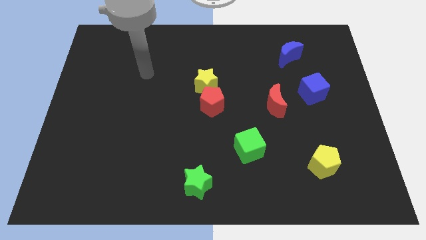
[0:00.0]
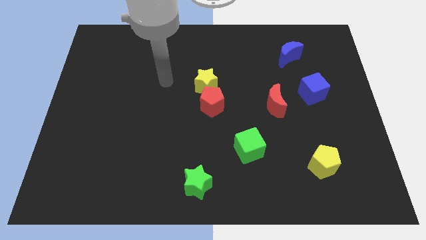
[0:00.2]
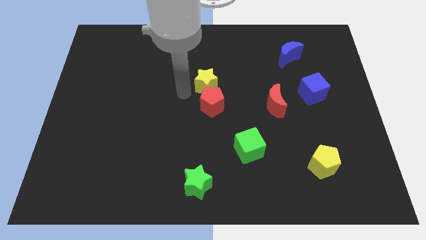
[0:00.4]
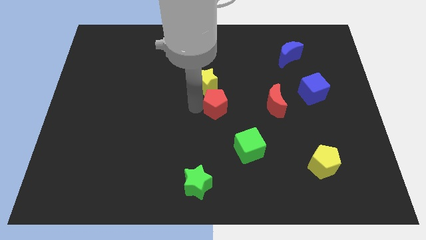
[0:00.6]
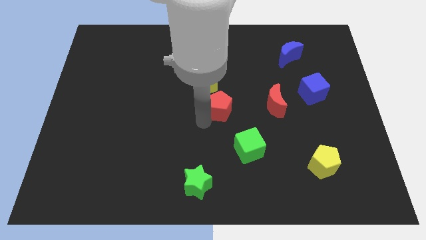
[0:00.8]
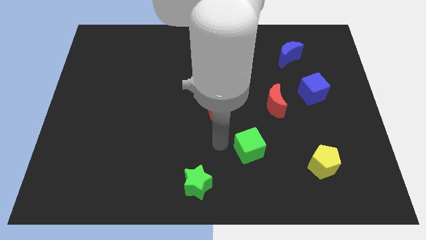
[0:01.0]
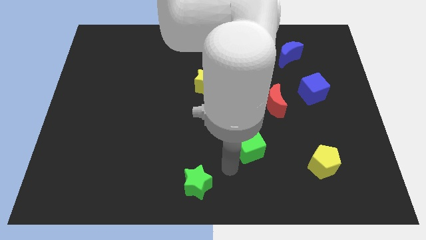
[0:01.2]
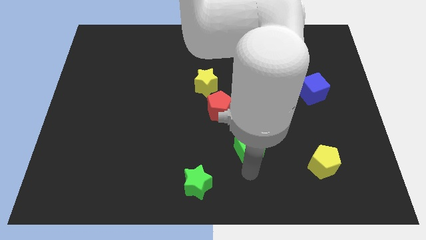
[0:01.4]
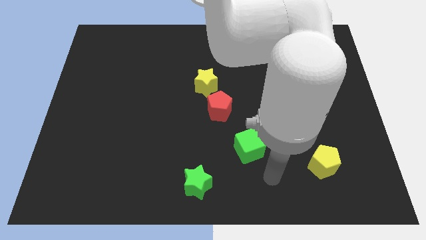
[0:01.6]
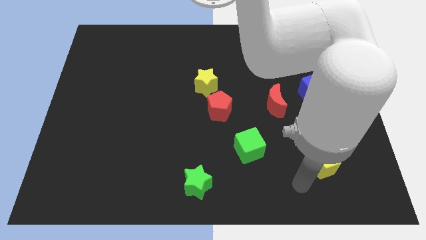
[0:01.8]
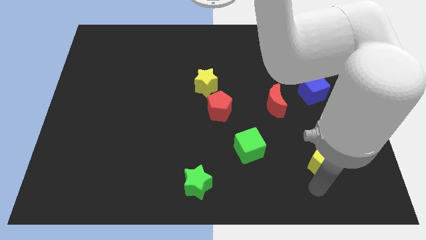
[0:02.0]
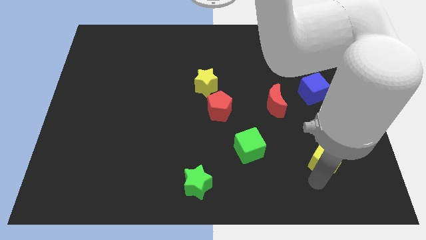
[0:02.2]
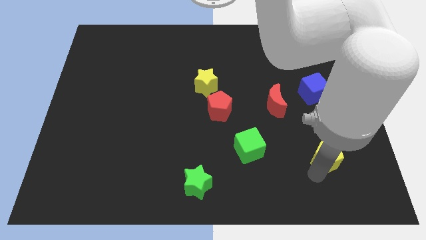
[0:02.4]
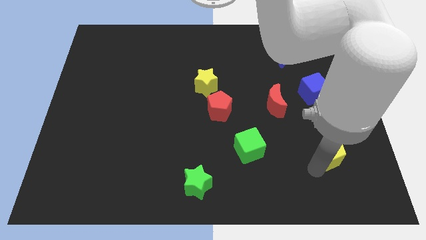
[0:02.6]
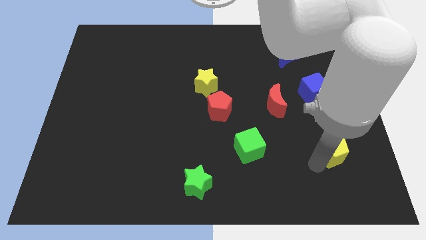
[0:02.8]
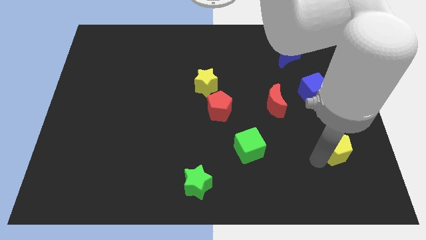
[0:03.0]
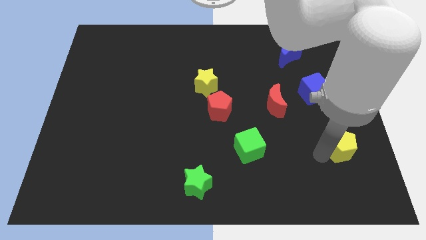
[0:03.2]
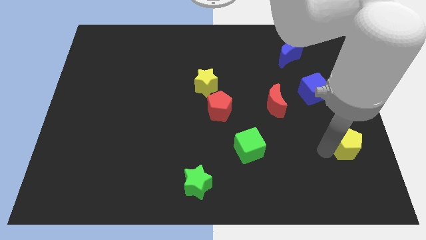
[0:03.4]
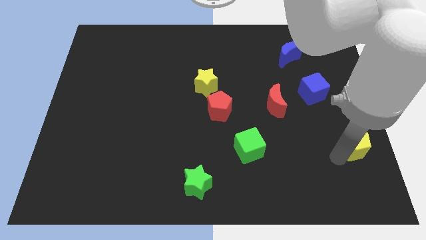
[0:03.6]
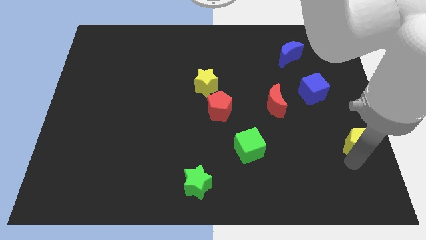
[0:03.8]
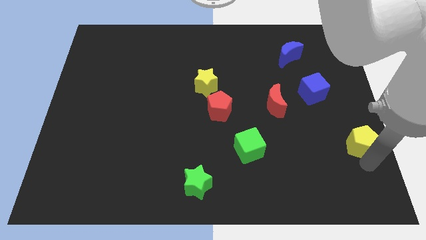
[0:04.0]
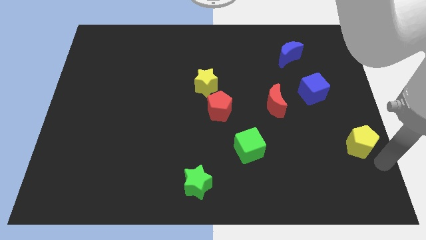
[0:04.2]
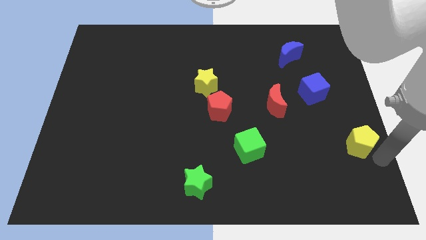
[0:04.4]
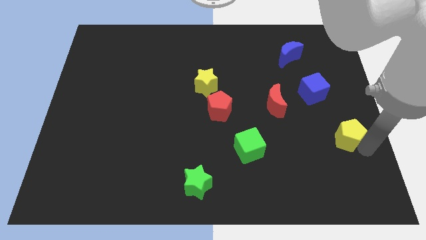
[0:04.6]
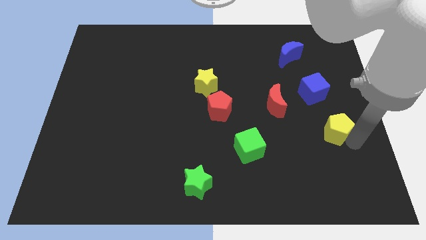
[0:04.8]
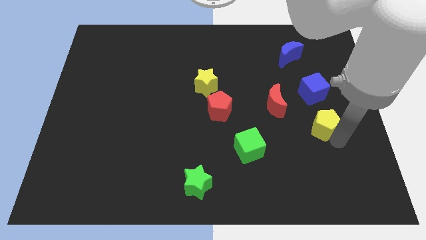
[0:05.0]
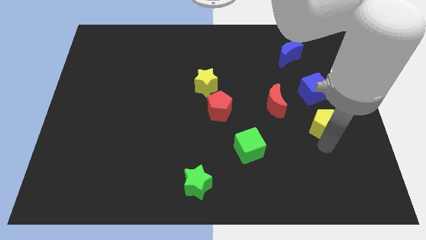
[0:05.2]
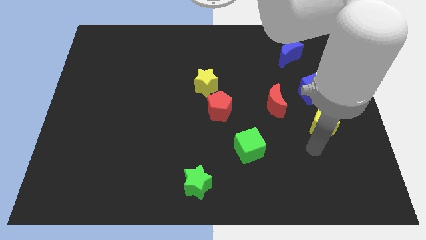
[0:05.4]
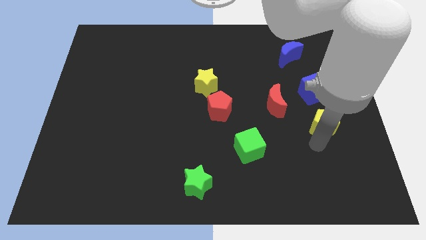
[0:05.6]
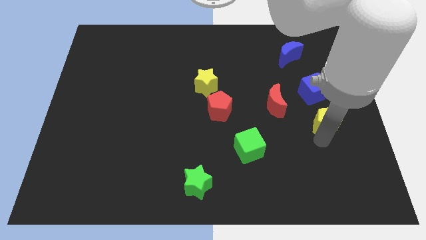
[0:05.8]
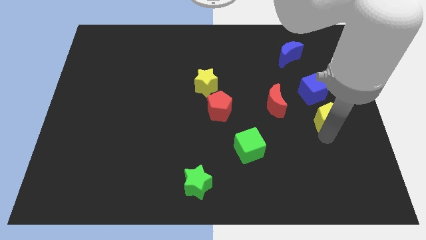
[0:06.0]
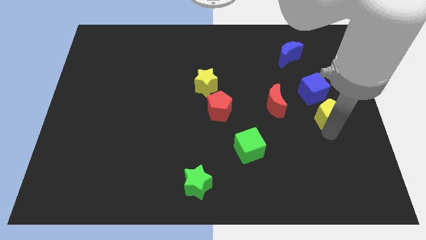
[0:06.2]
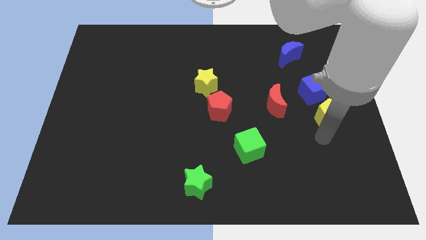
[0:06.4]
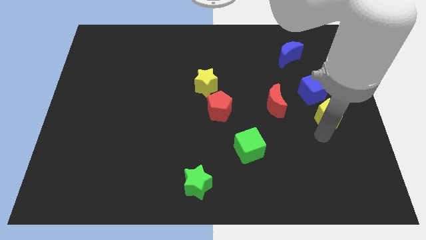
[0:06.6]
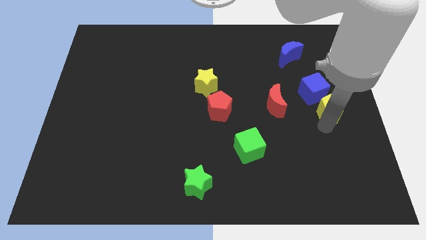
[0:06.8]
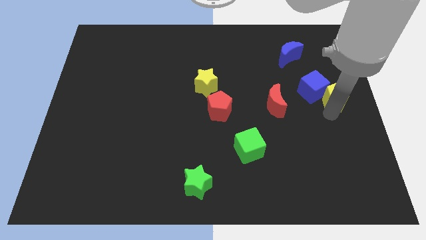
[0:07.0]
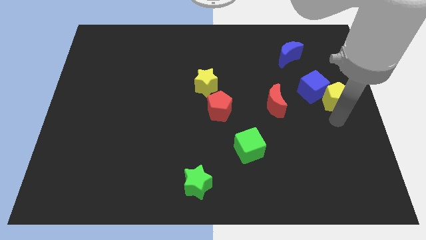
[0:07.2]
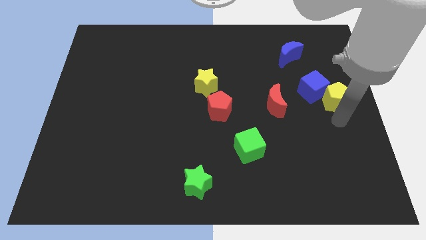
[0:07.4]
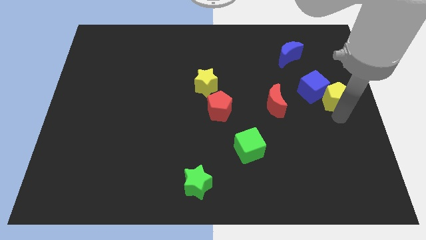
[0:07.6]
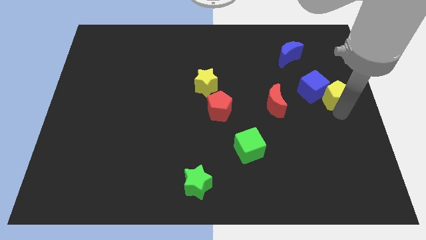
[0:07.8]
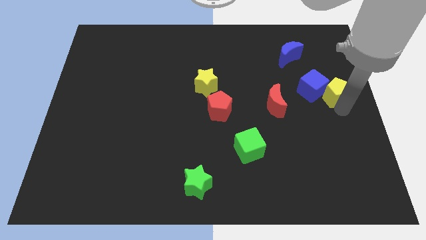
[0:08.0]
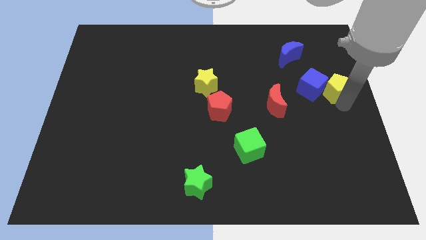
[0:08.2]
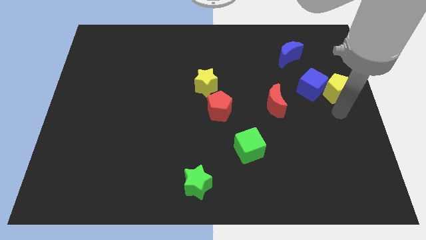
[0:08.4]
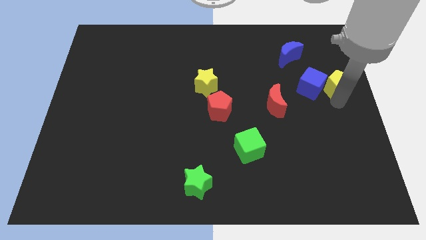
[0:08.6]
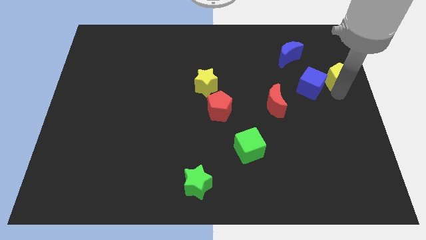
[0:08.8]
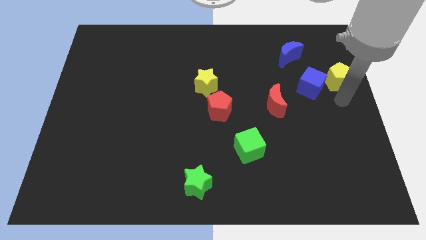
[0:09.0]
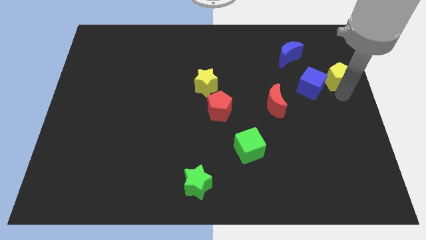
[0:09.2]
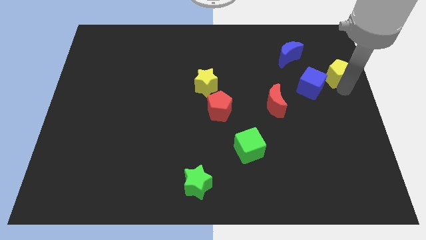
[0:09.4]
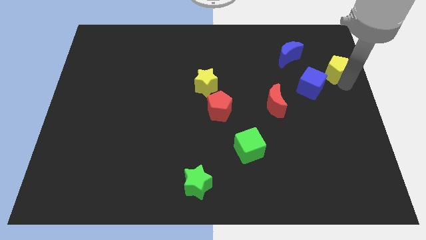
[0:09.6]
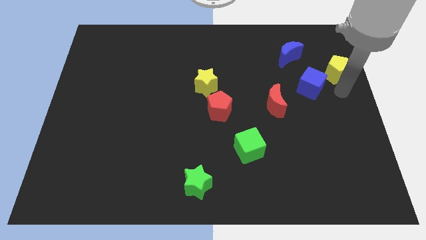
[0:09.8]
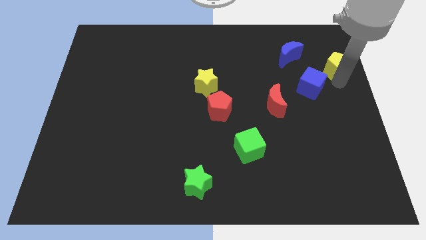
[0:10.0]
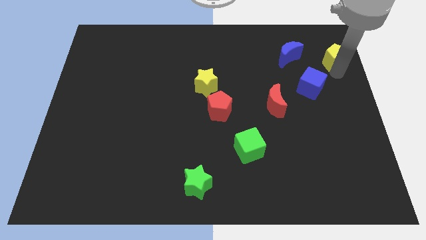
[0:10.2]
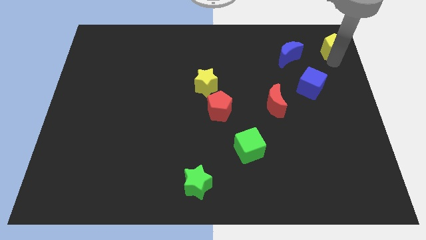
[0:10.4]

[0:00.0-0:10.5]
slide the yellow pentagon to the top right of the board

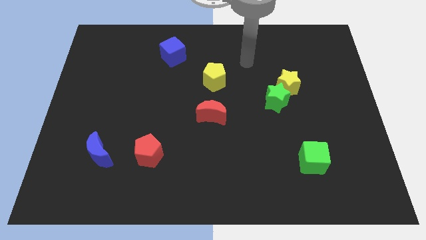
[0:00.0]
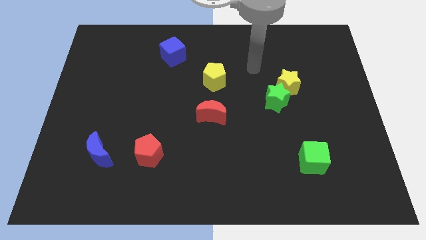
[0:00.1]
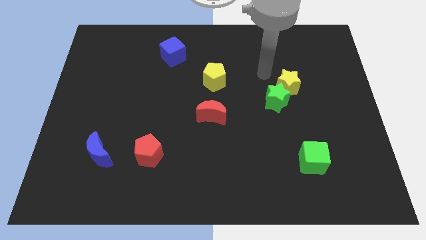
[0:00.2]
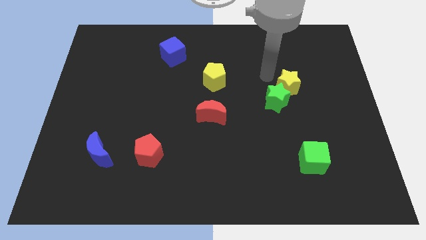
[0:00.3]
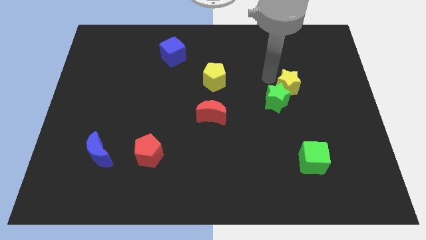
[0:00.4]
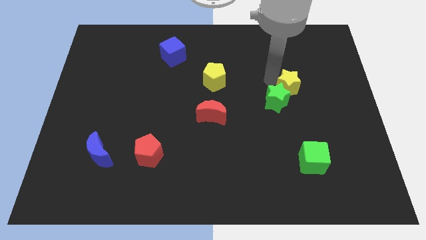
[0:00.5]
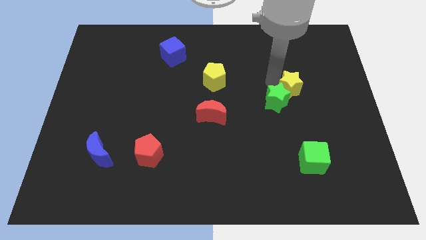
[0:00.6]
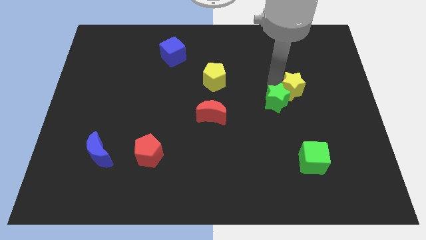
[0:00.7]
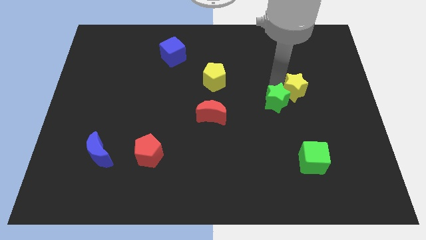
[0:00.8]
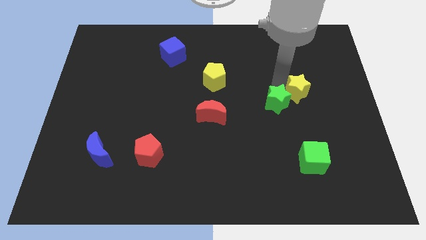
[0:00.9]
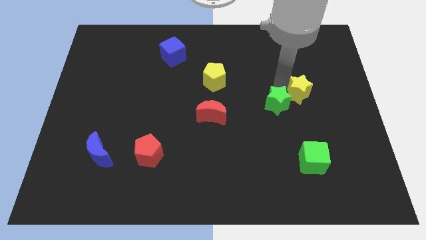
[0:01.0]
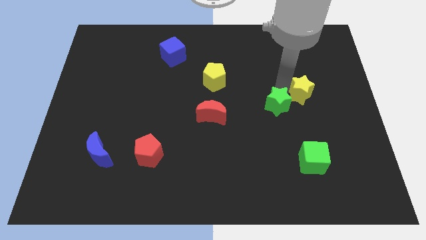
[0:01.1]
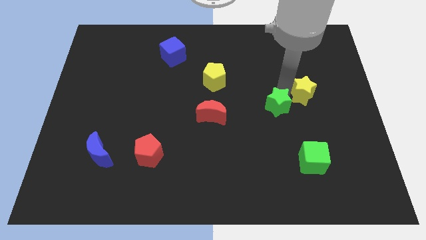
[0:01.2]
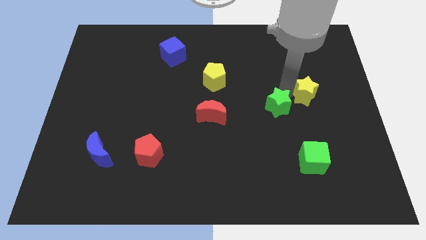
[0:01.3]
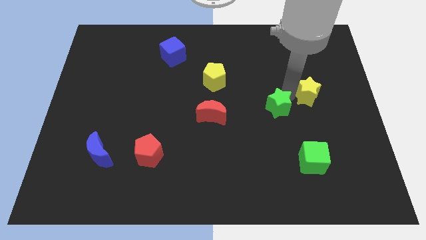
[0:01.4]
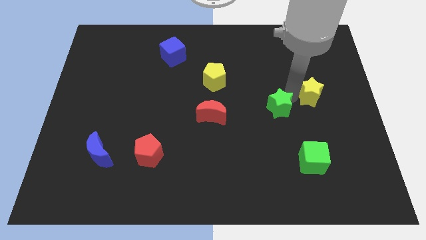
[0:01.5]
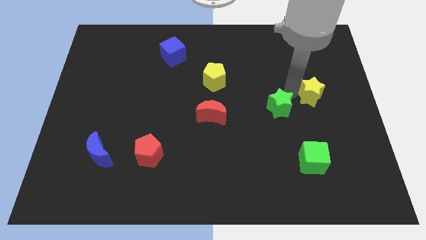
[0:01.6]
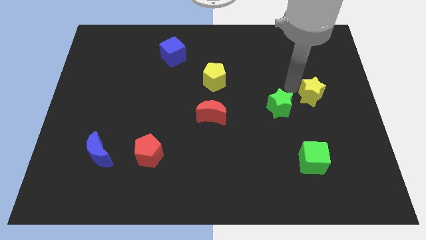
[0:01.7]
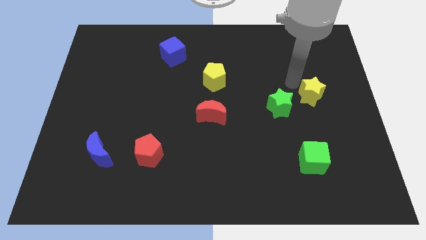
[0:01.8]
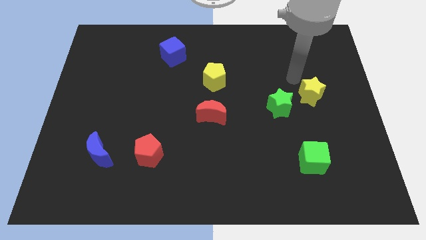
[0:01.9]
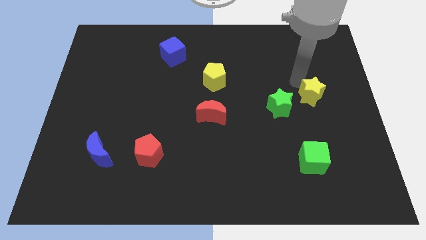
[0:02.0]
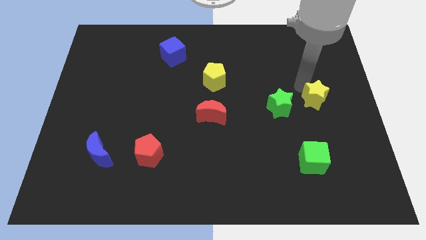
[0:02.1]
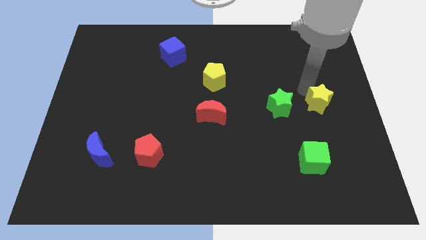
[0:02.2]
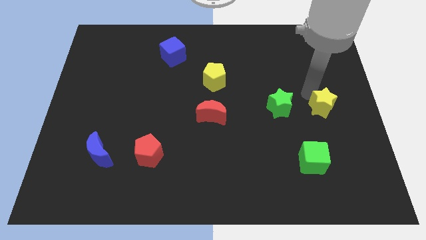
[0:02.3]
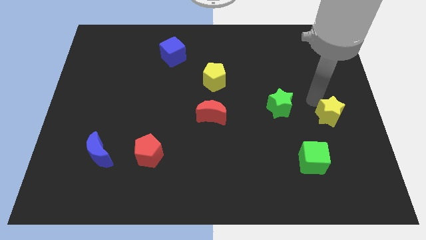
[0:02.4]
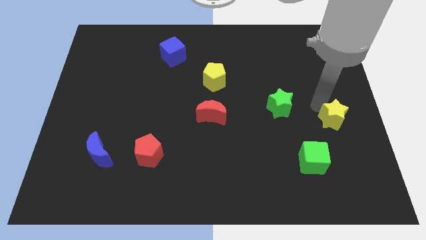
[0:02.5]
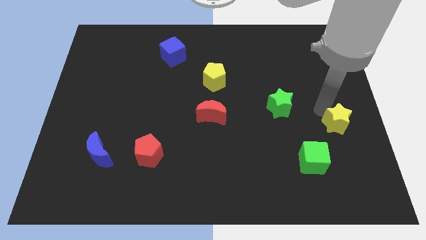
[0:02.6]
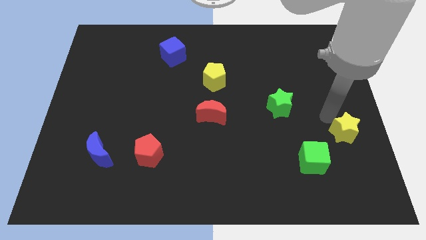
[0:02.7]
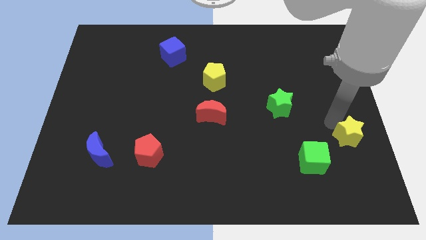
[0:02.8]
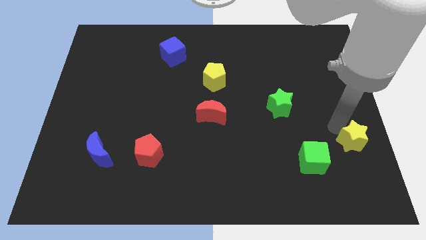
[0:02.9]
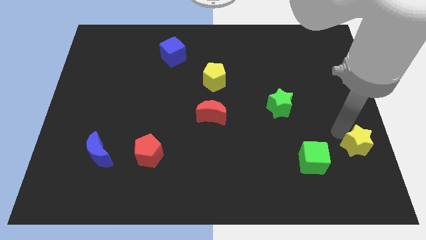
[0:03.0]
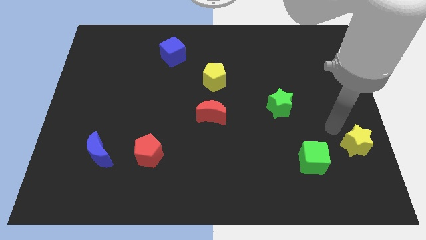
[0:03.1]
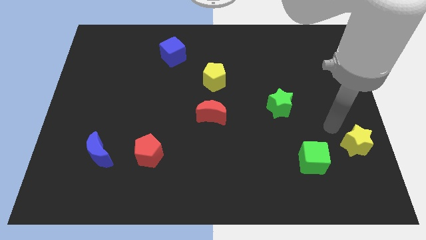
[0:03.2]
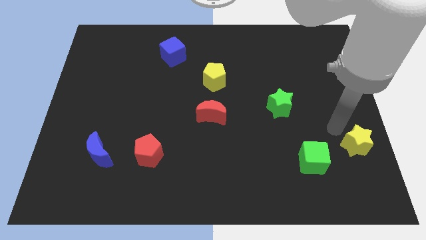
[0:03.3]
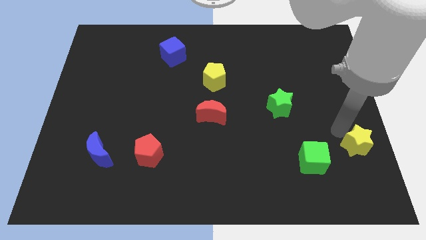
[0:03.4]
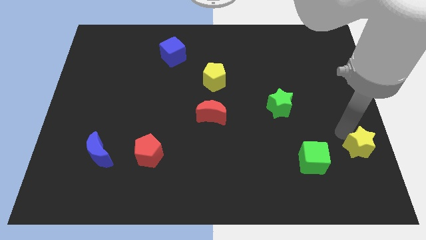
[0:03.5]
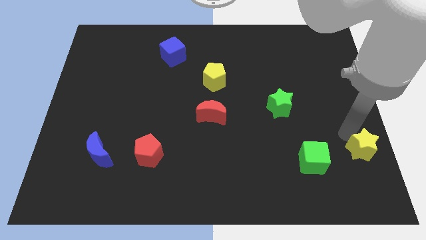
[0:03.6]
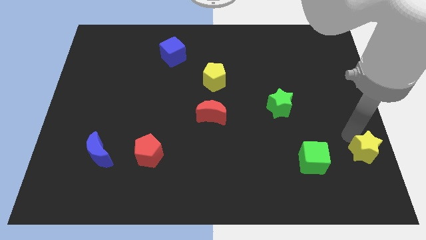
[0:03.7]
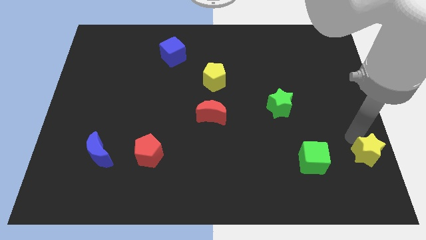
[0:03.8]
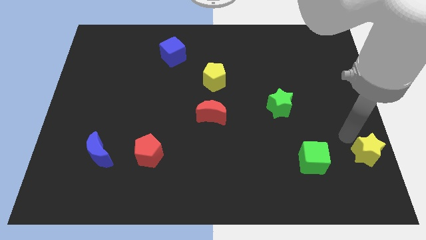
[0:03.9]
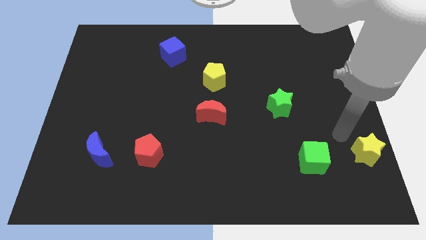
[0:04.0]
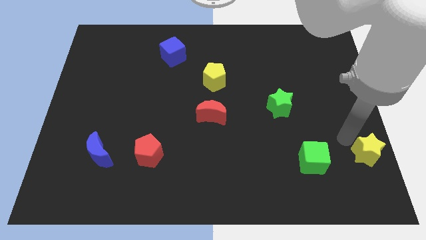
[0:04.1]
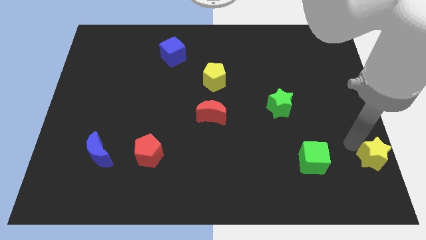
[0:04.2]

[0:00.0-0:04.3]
move the yellow star to the lower right corner
